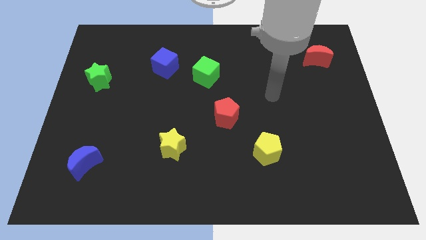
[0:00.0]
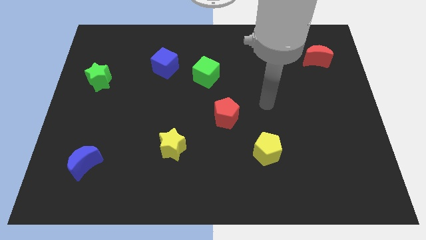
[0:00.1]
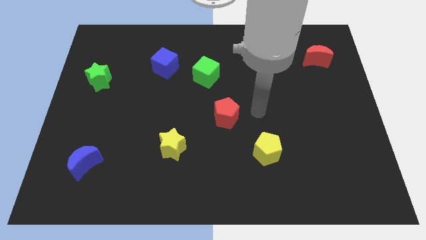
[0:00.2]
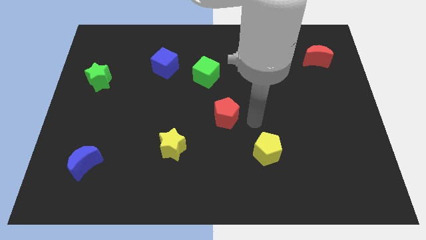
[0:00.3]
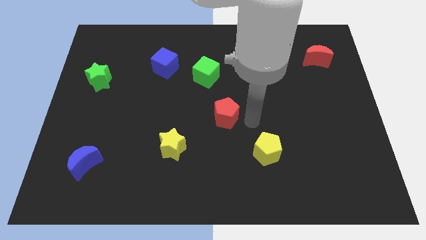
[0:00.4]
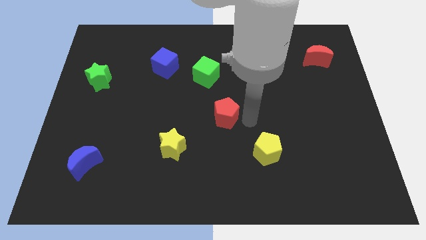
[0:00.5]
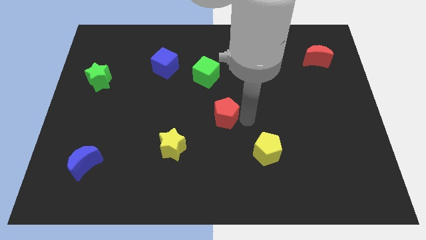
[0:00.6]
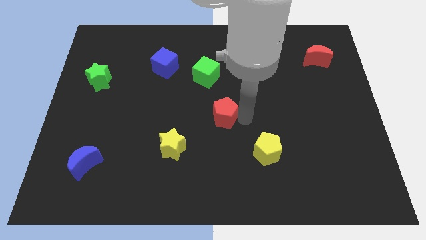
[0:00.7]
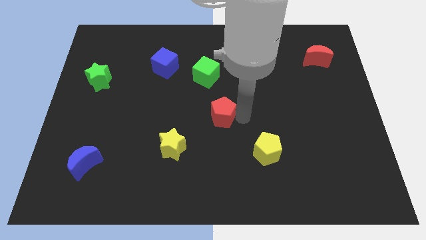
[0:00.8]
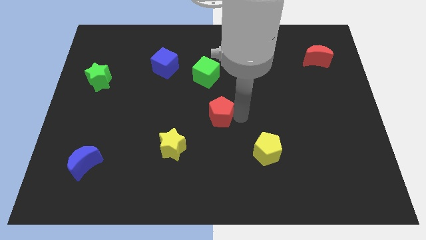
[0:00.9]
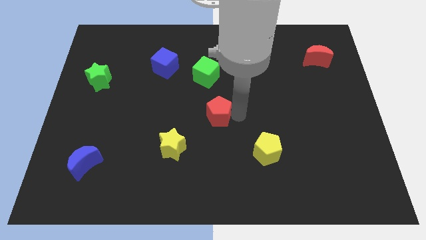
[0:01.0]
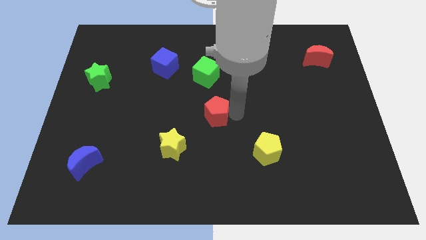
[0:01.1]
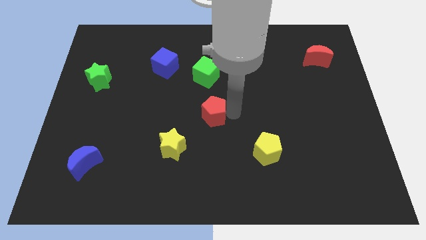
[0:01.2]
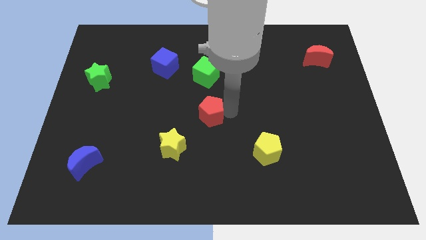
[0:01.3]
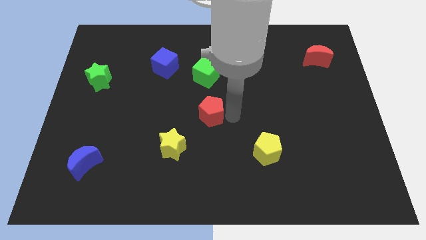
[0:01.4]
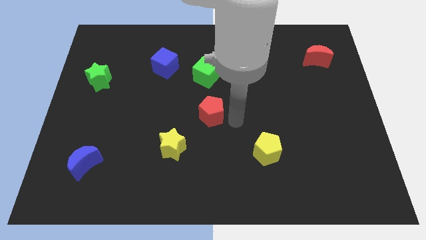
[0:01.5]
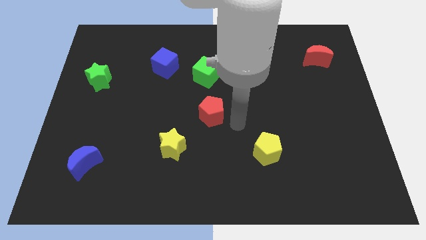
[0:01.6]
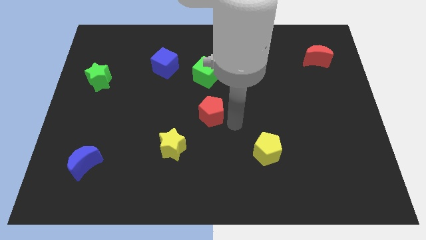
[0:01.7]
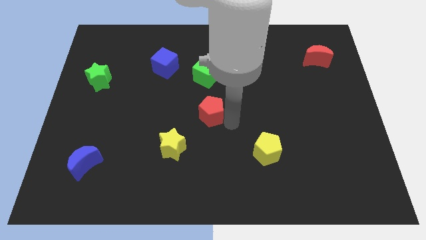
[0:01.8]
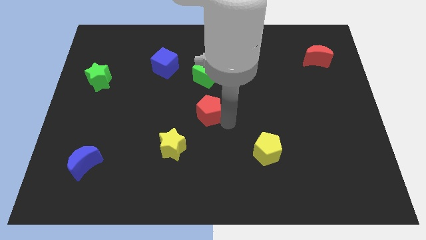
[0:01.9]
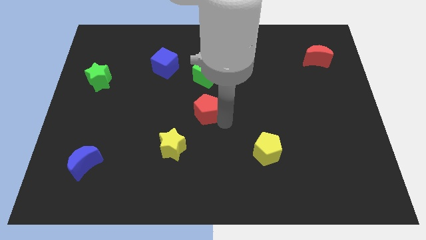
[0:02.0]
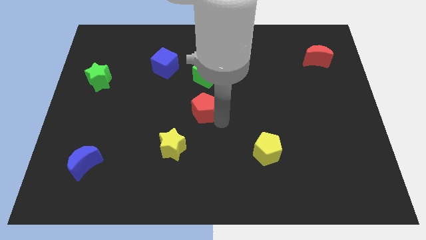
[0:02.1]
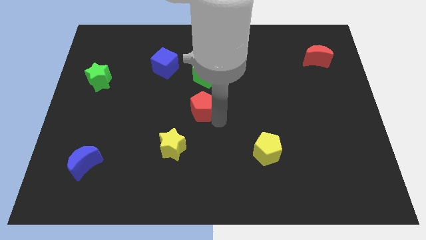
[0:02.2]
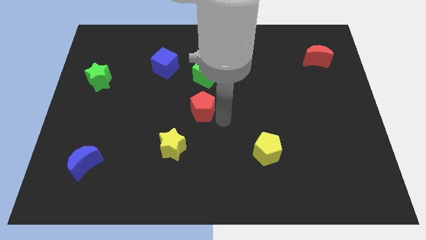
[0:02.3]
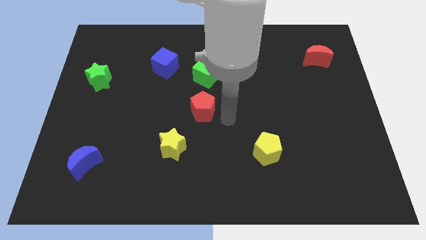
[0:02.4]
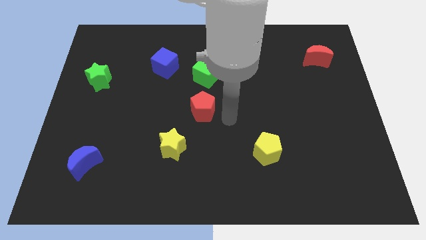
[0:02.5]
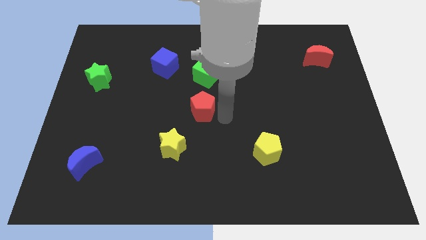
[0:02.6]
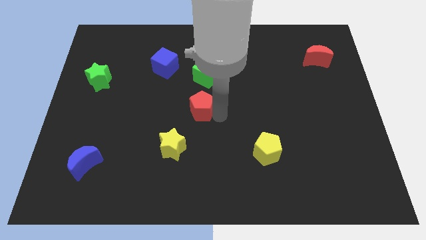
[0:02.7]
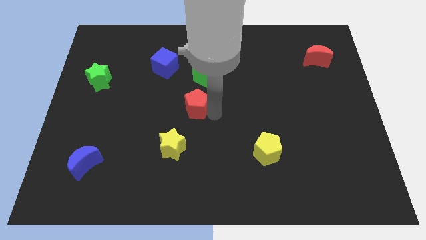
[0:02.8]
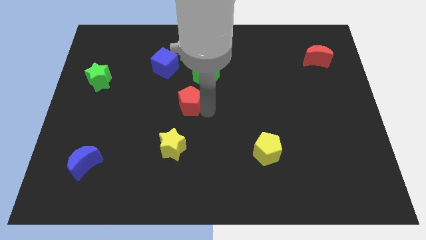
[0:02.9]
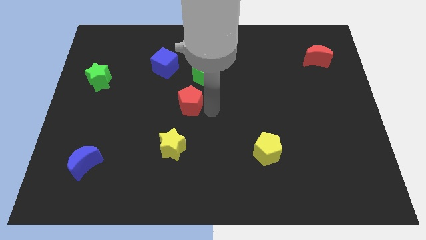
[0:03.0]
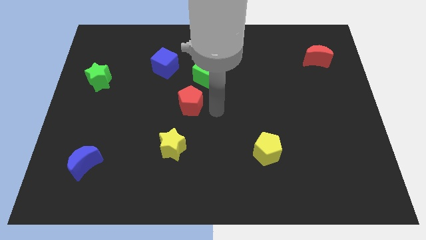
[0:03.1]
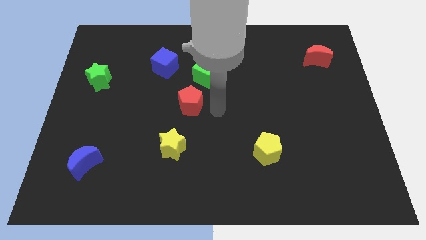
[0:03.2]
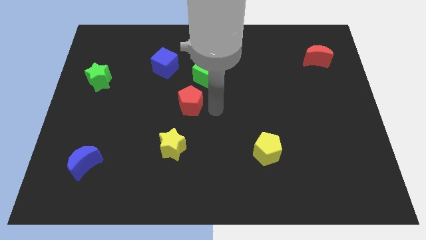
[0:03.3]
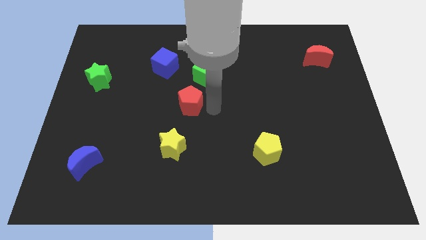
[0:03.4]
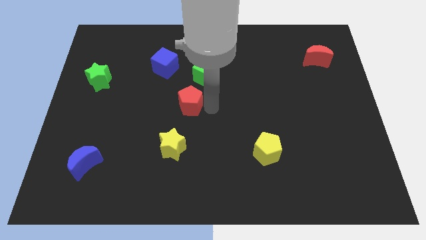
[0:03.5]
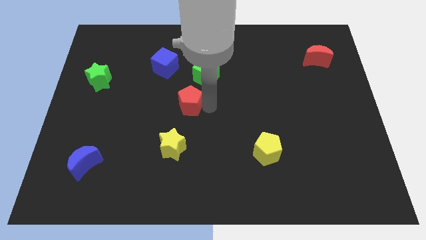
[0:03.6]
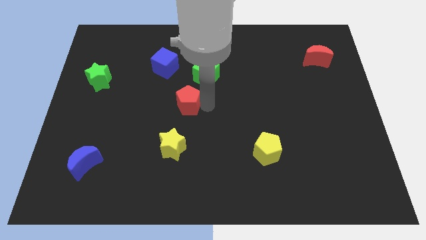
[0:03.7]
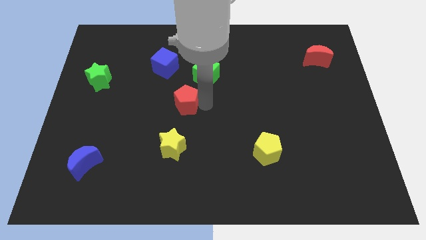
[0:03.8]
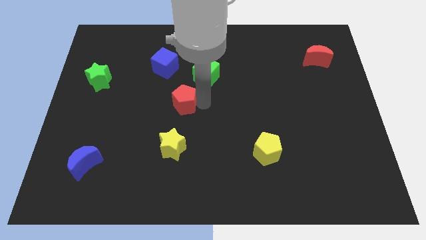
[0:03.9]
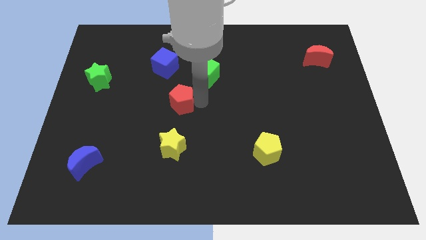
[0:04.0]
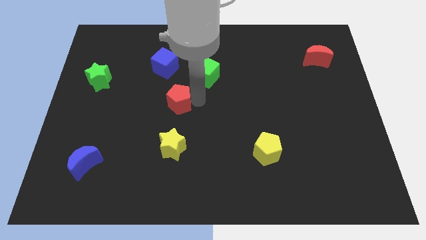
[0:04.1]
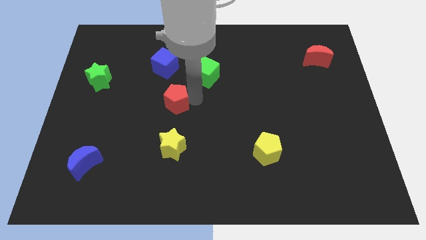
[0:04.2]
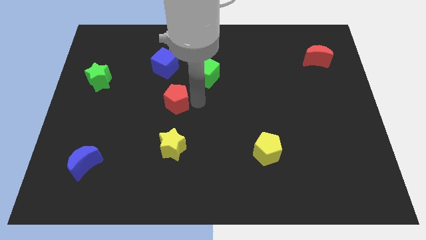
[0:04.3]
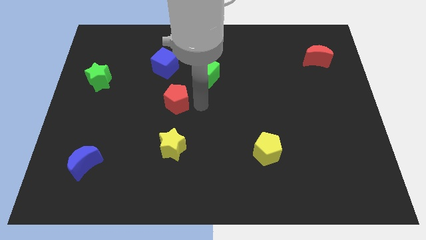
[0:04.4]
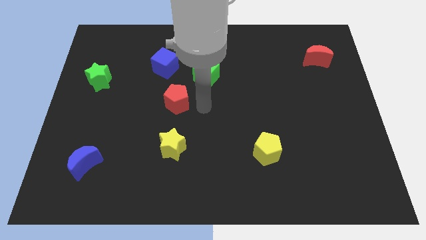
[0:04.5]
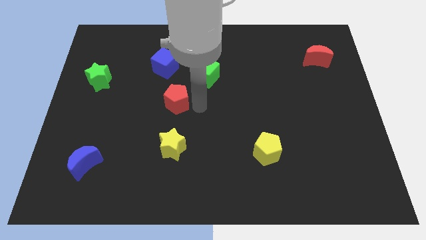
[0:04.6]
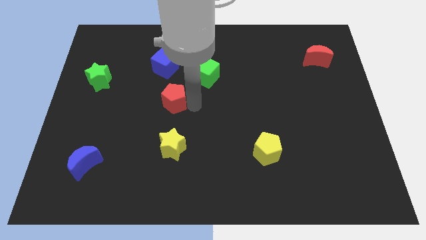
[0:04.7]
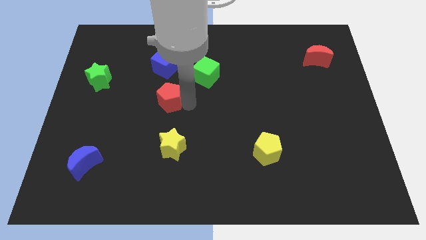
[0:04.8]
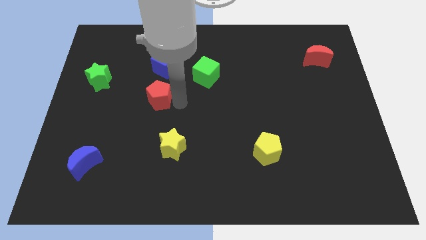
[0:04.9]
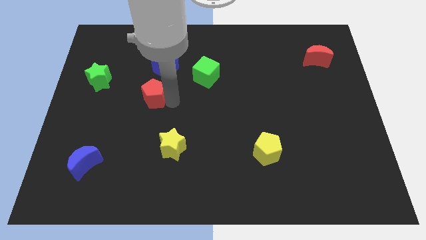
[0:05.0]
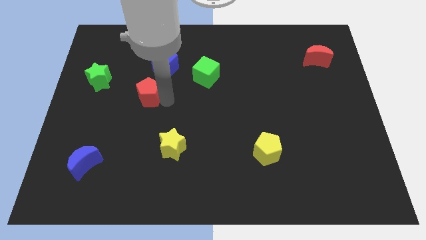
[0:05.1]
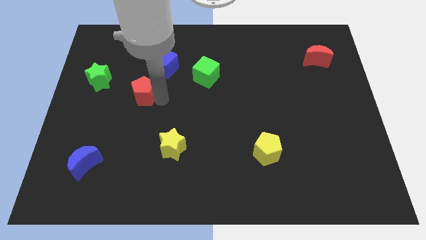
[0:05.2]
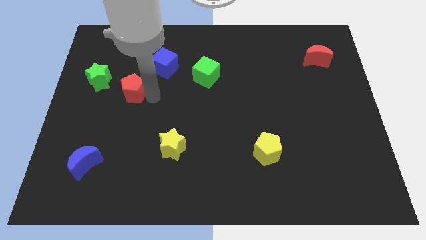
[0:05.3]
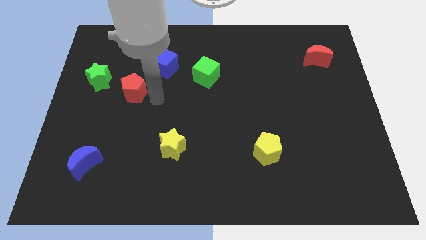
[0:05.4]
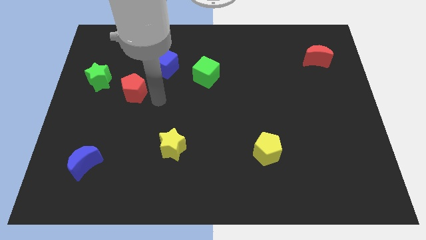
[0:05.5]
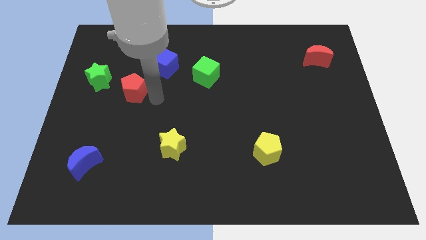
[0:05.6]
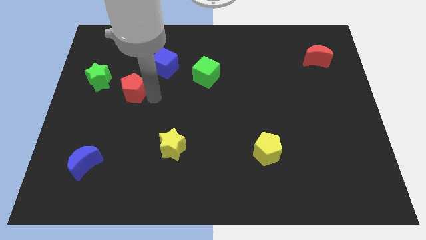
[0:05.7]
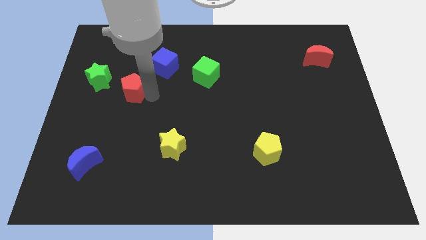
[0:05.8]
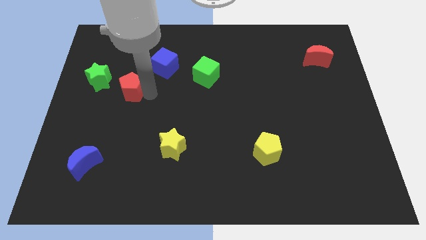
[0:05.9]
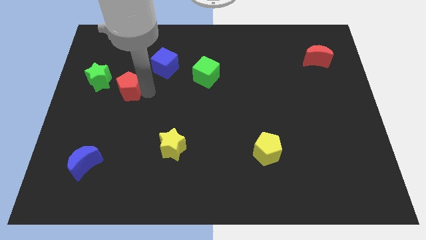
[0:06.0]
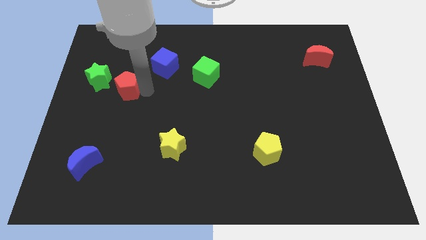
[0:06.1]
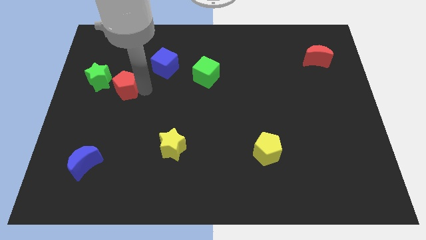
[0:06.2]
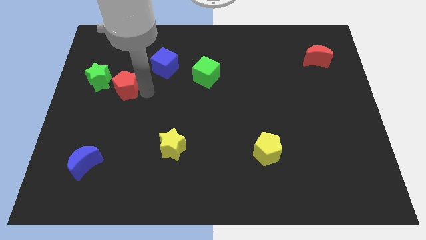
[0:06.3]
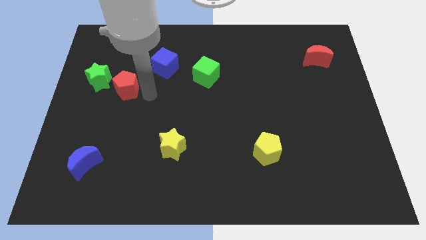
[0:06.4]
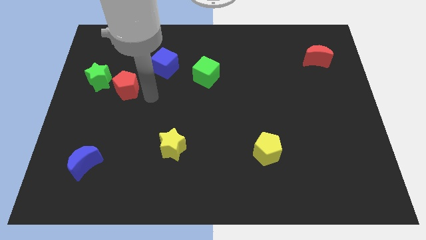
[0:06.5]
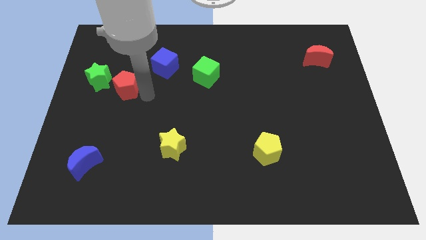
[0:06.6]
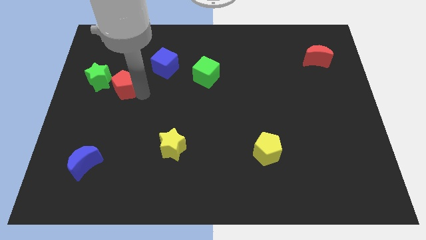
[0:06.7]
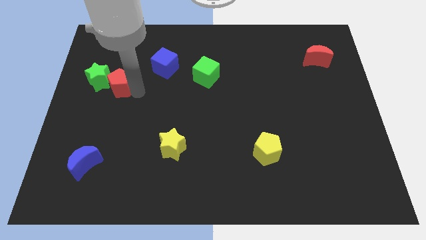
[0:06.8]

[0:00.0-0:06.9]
slide the red pentagon close to the green star

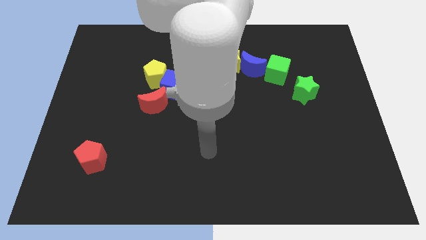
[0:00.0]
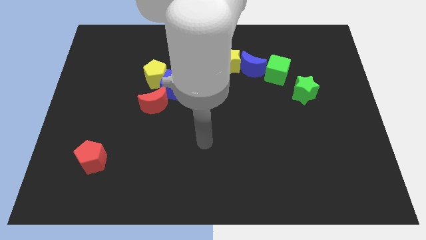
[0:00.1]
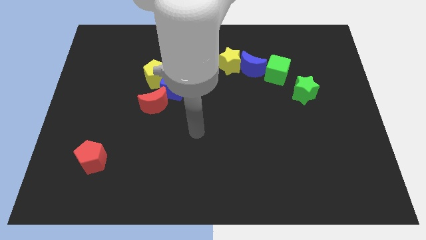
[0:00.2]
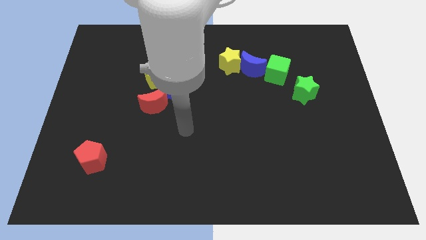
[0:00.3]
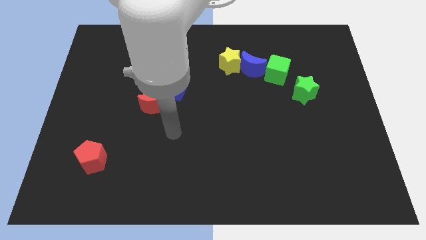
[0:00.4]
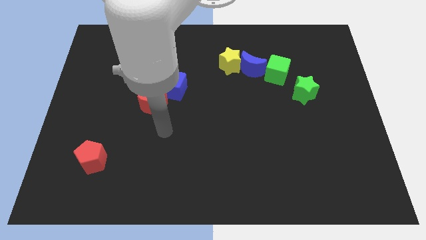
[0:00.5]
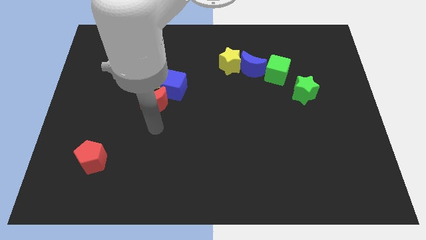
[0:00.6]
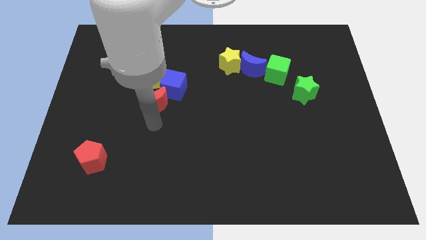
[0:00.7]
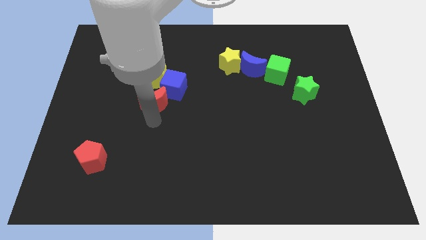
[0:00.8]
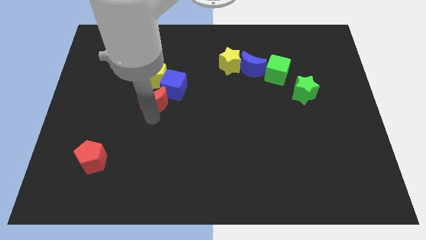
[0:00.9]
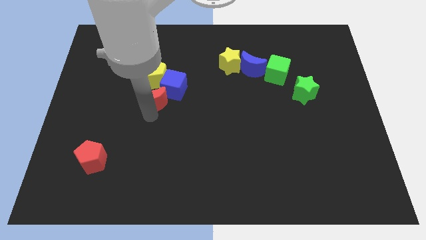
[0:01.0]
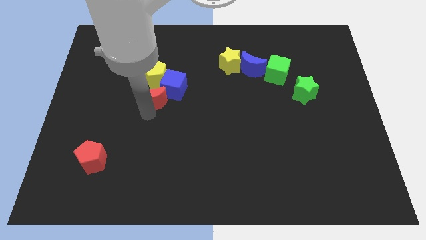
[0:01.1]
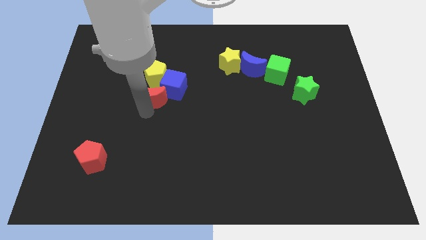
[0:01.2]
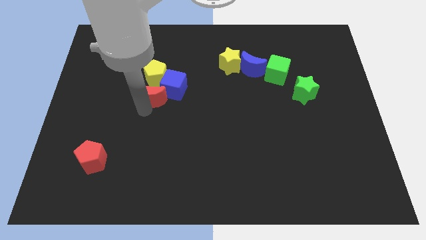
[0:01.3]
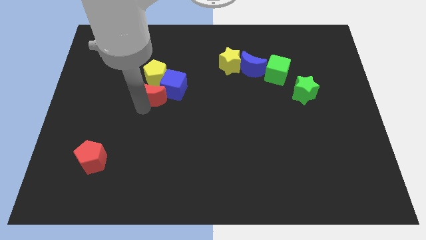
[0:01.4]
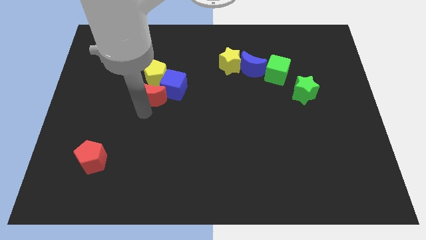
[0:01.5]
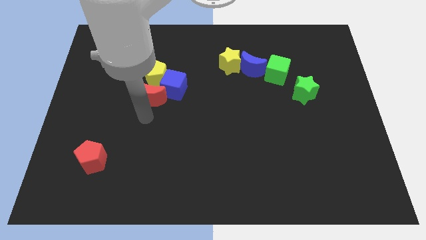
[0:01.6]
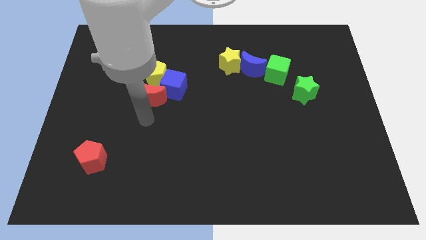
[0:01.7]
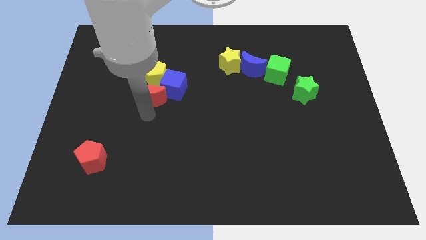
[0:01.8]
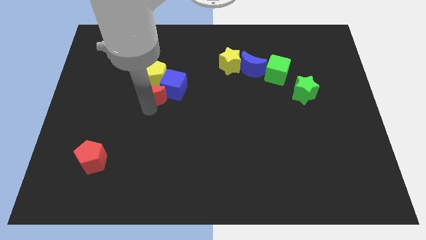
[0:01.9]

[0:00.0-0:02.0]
slide the red moon close to the yellow pentagon
